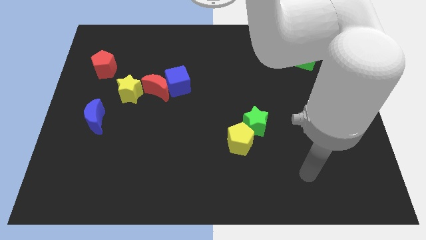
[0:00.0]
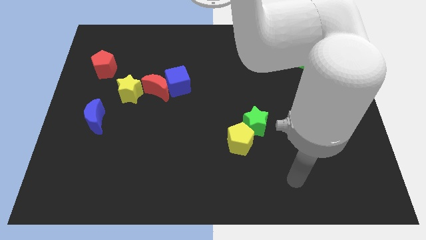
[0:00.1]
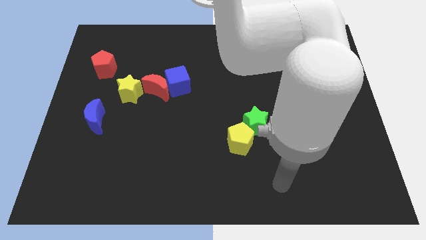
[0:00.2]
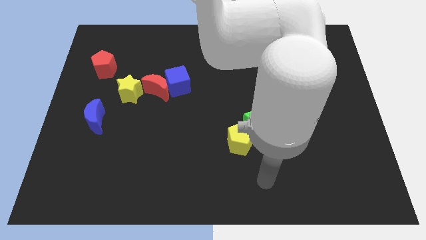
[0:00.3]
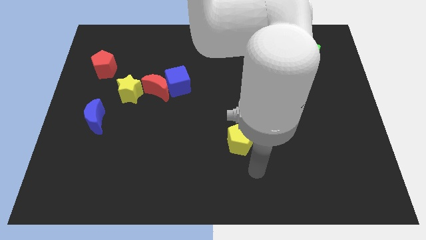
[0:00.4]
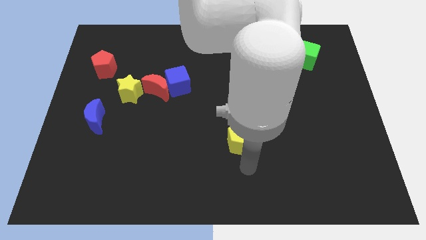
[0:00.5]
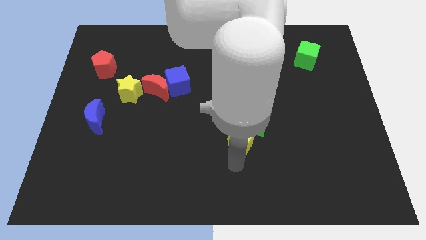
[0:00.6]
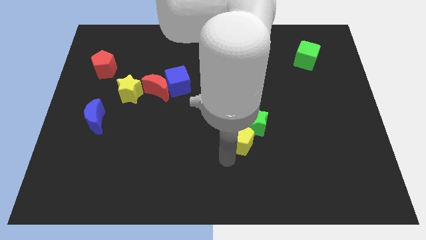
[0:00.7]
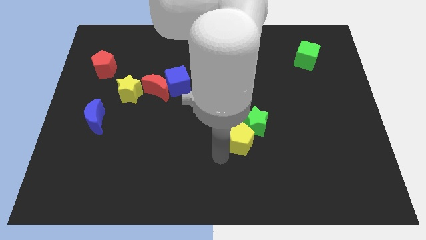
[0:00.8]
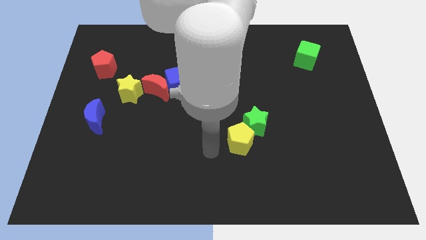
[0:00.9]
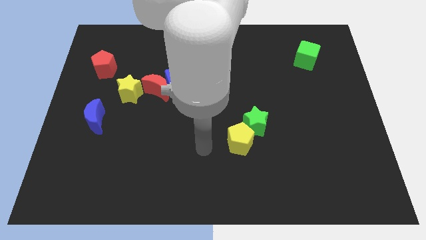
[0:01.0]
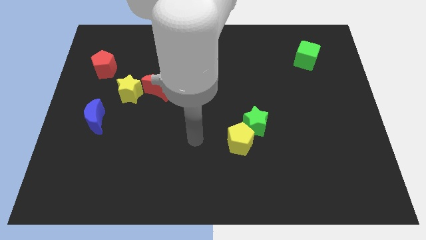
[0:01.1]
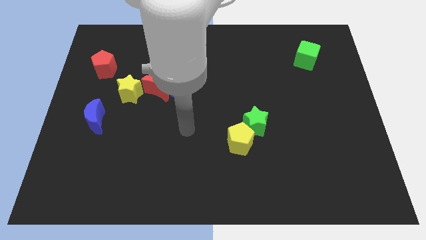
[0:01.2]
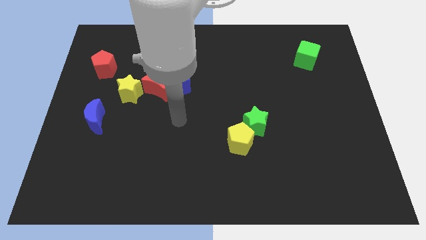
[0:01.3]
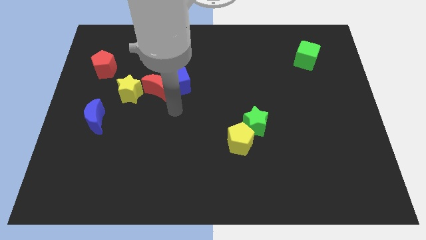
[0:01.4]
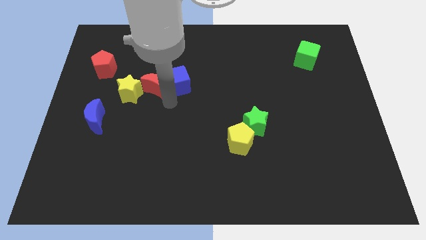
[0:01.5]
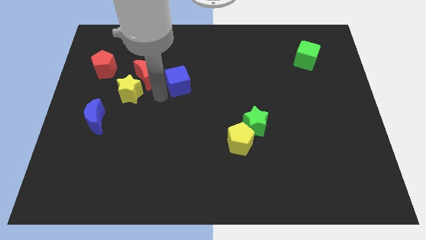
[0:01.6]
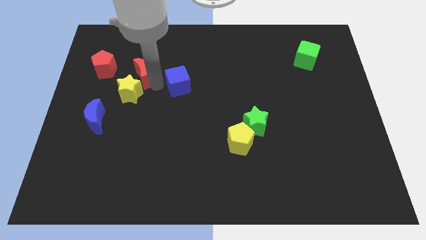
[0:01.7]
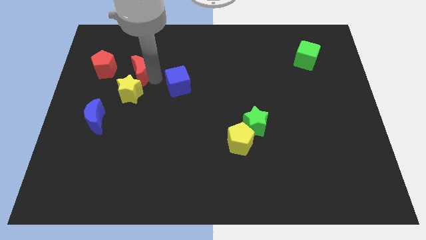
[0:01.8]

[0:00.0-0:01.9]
pull the blue cube apart from the red moon

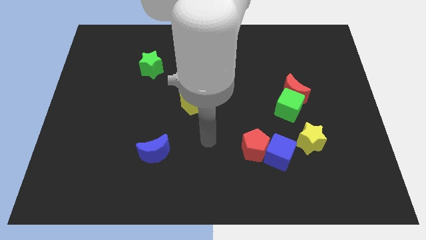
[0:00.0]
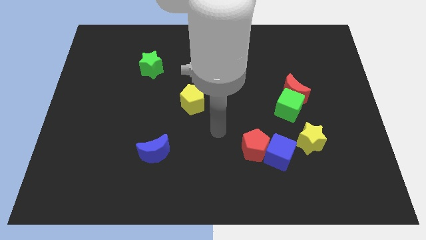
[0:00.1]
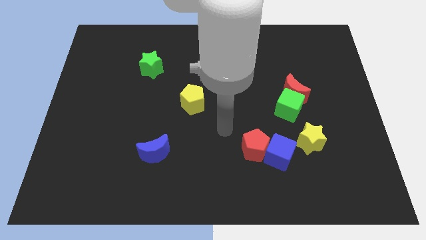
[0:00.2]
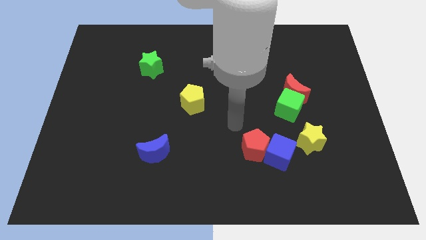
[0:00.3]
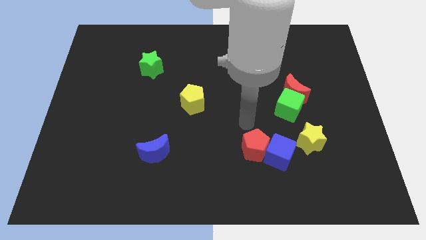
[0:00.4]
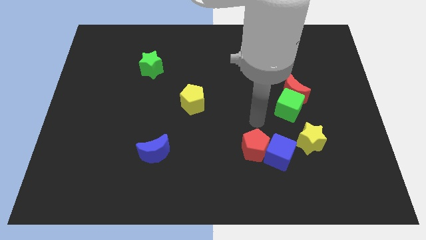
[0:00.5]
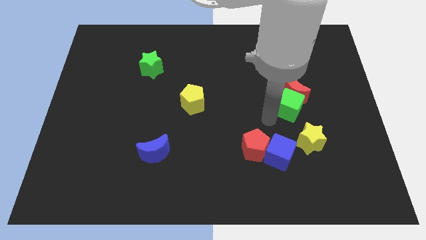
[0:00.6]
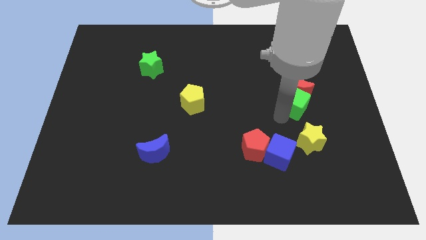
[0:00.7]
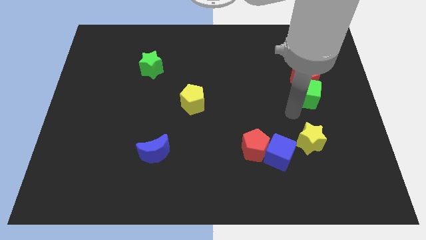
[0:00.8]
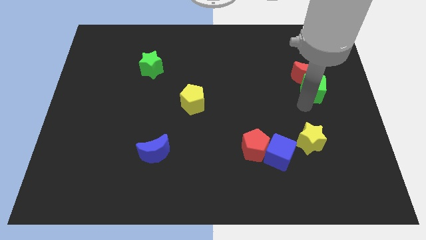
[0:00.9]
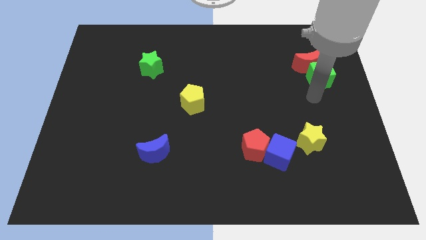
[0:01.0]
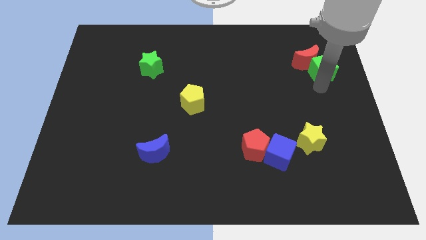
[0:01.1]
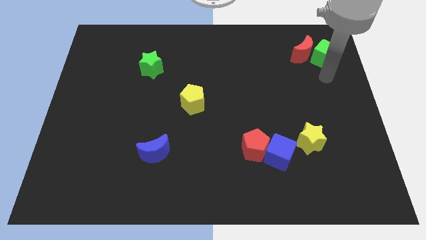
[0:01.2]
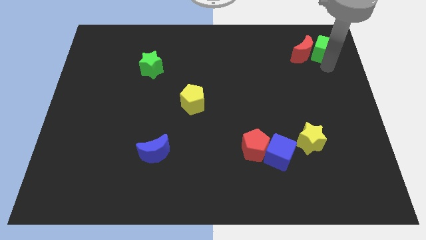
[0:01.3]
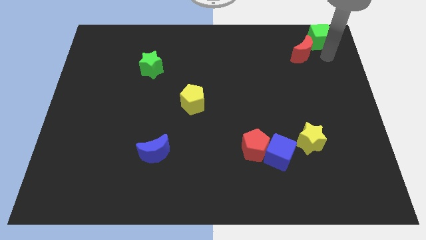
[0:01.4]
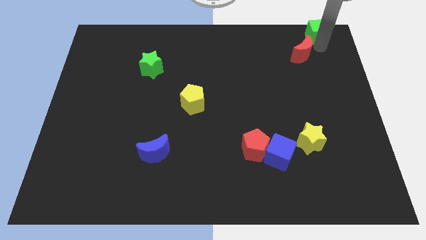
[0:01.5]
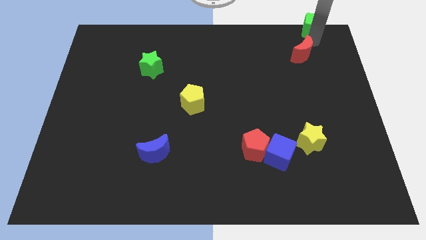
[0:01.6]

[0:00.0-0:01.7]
move the red moon away from the green cube

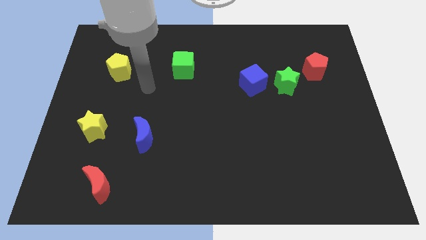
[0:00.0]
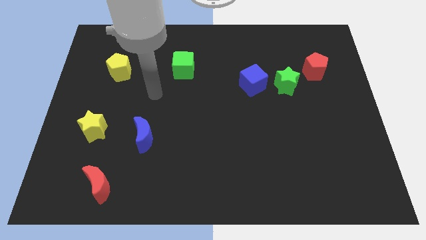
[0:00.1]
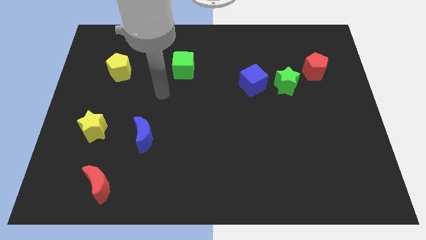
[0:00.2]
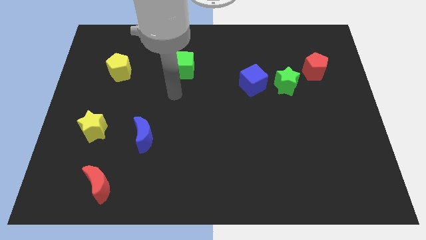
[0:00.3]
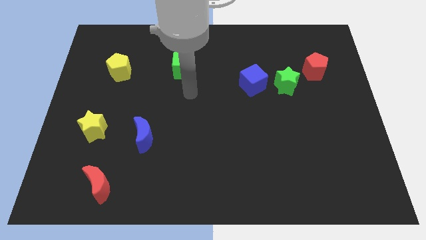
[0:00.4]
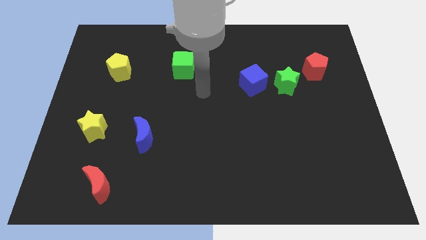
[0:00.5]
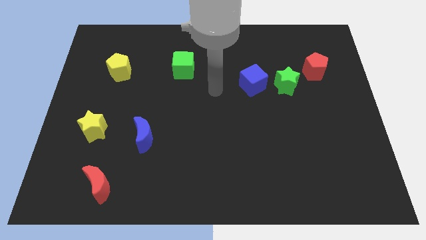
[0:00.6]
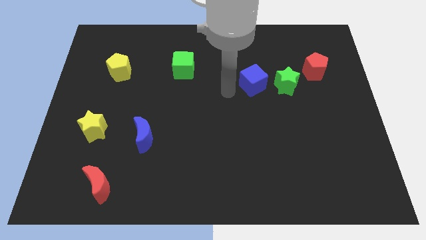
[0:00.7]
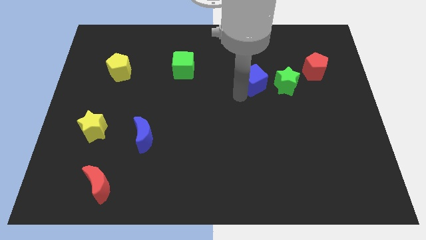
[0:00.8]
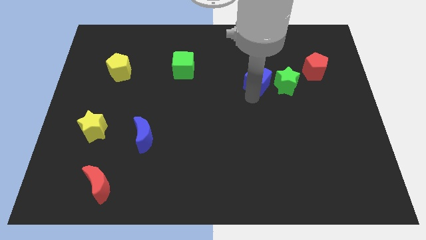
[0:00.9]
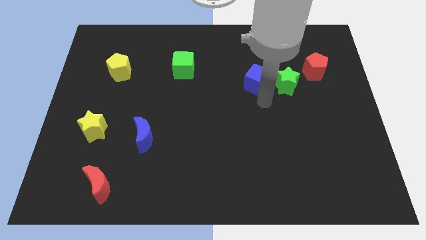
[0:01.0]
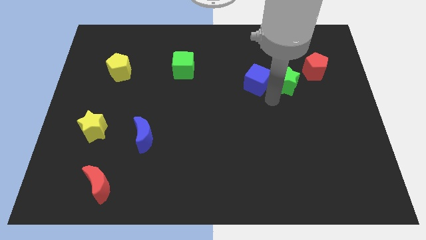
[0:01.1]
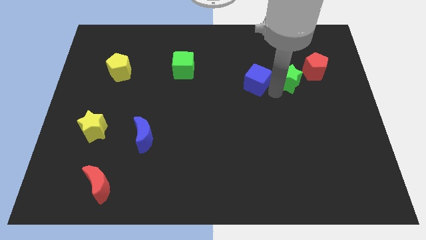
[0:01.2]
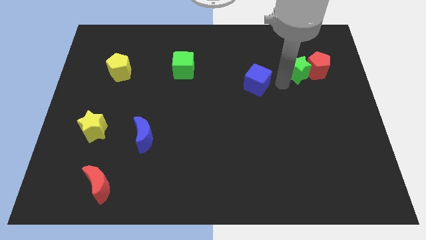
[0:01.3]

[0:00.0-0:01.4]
separate the blue cube from the green star

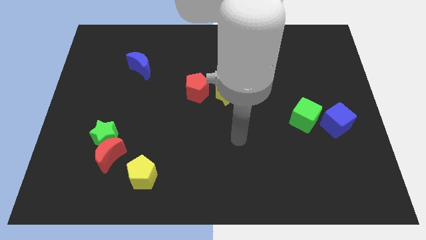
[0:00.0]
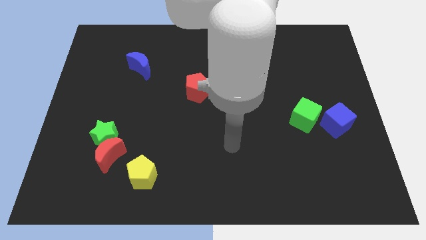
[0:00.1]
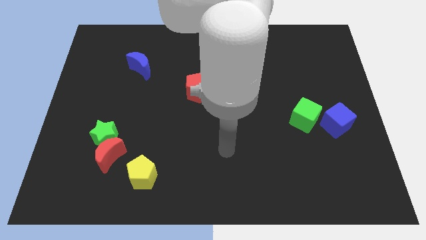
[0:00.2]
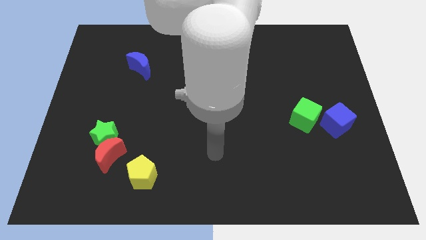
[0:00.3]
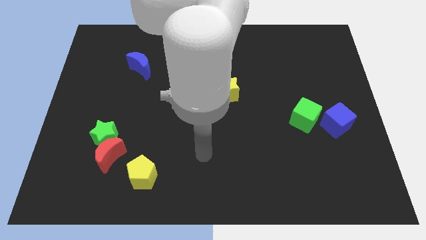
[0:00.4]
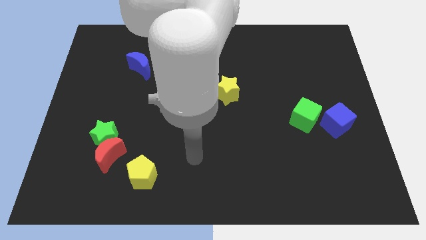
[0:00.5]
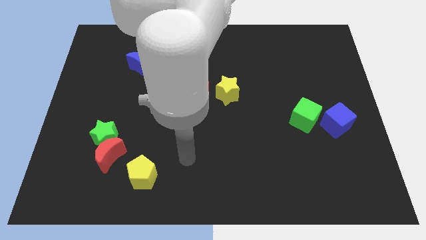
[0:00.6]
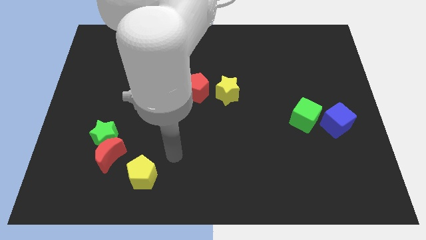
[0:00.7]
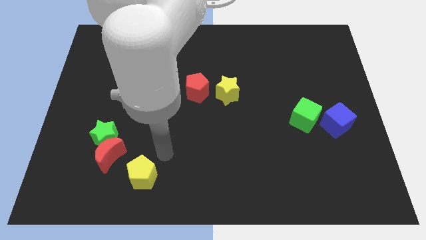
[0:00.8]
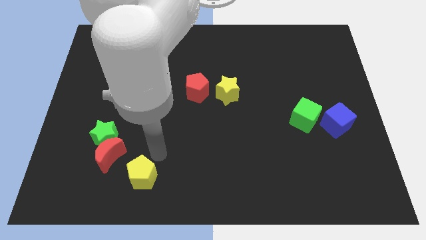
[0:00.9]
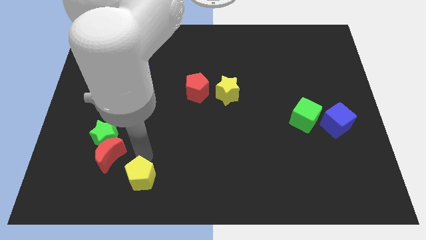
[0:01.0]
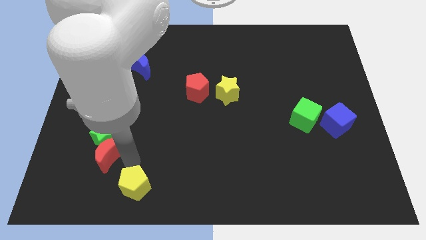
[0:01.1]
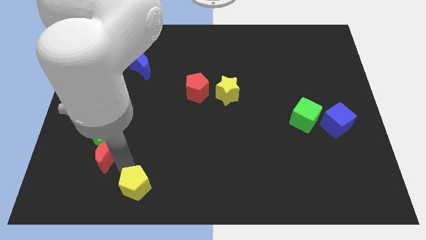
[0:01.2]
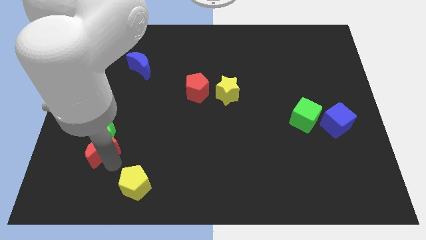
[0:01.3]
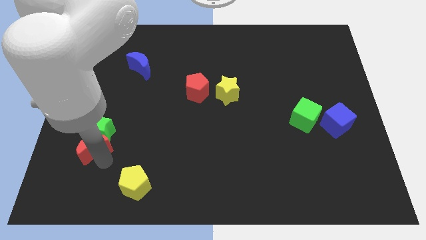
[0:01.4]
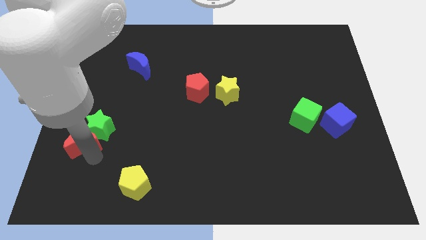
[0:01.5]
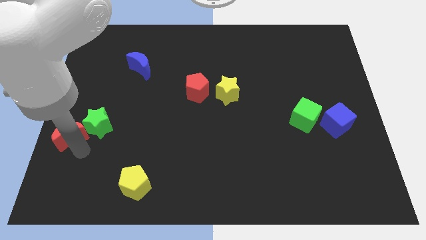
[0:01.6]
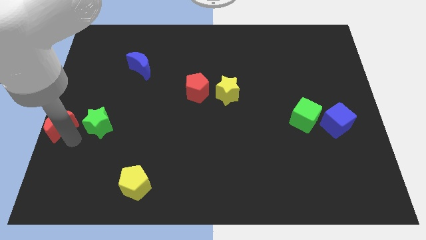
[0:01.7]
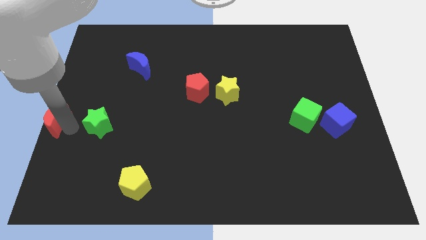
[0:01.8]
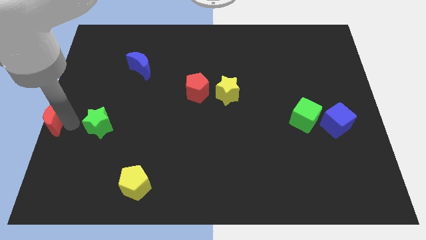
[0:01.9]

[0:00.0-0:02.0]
move the green star away from the red moon

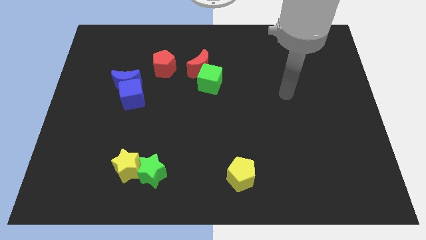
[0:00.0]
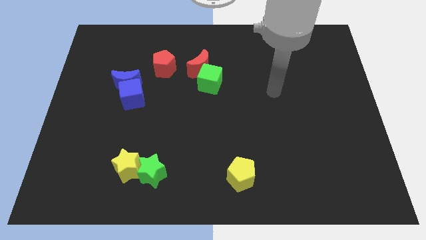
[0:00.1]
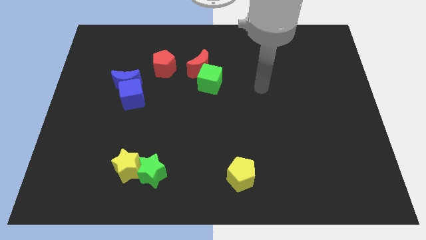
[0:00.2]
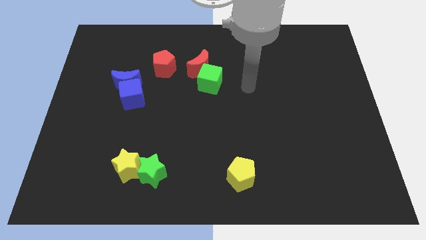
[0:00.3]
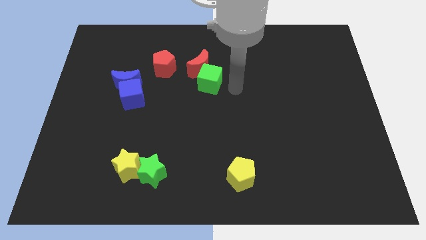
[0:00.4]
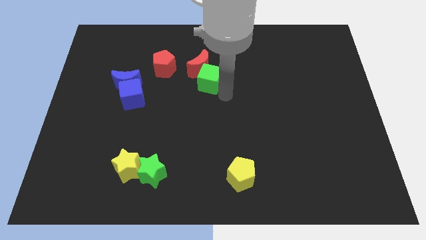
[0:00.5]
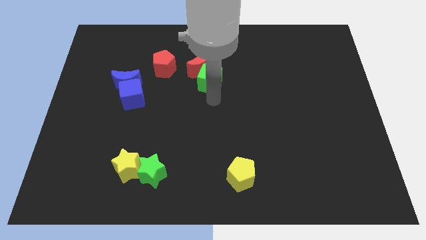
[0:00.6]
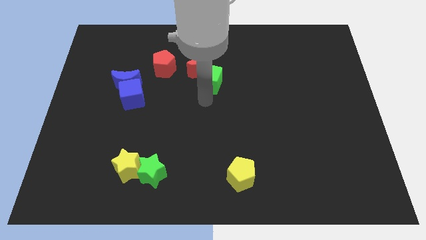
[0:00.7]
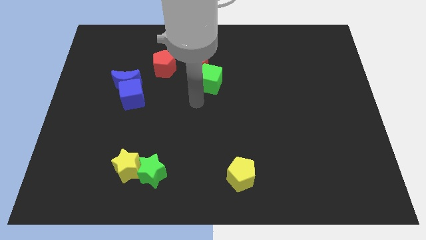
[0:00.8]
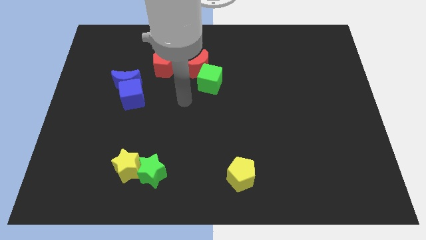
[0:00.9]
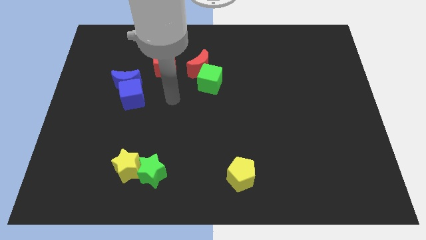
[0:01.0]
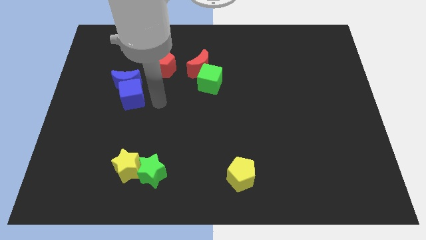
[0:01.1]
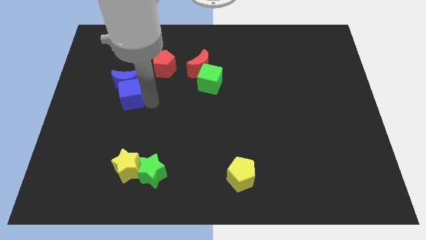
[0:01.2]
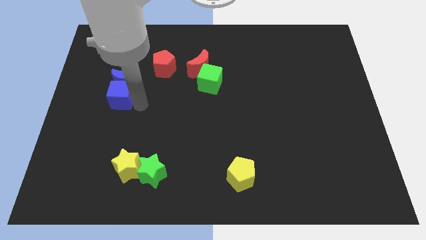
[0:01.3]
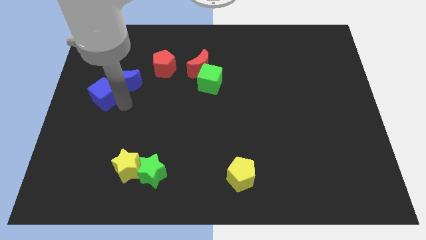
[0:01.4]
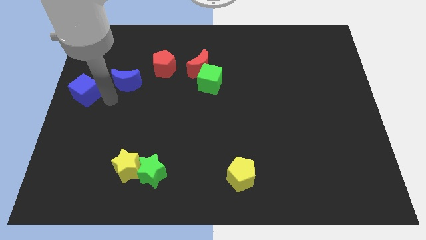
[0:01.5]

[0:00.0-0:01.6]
separate the blue moon from the blue cube

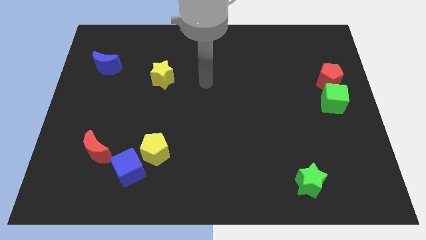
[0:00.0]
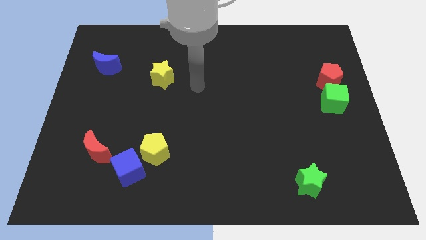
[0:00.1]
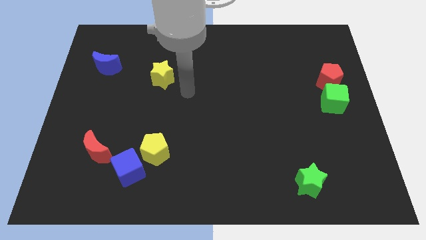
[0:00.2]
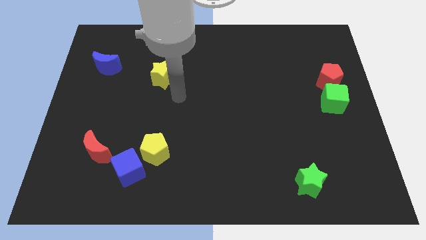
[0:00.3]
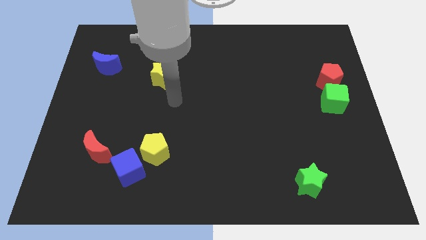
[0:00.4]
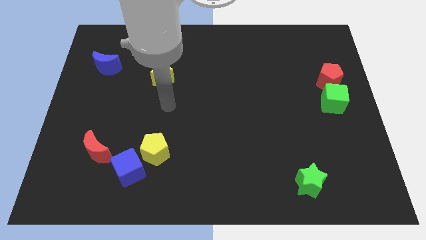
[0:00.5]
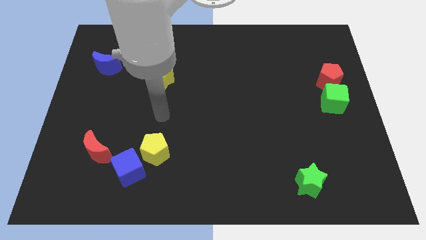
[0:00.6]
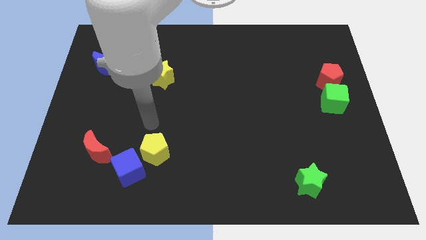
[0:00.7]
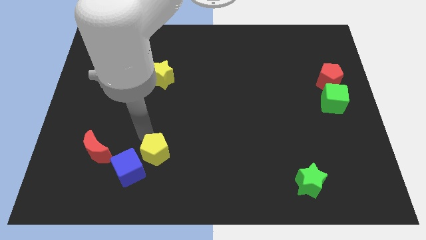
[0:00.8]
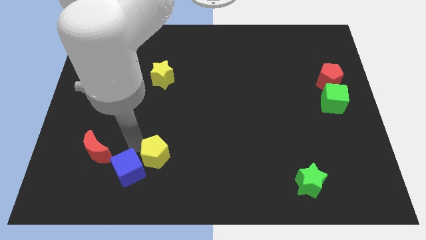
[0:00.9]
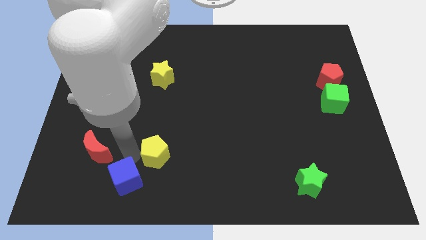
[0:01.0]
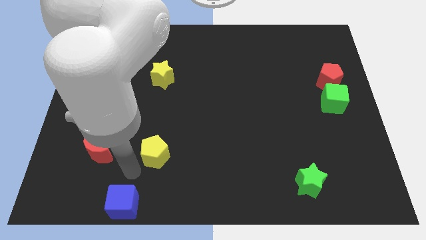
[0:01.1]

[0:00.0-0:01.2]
move the yellow pentagon away from the blue cube
